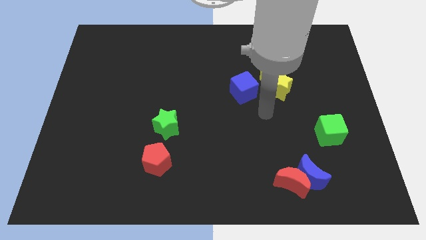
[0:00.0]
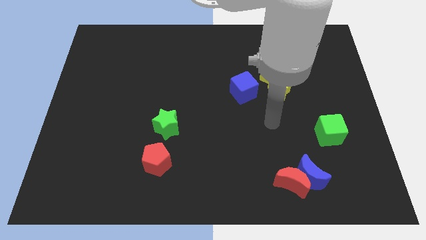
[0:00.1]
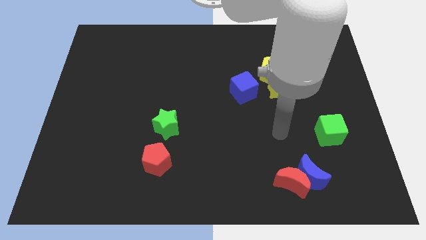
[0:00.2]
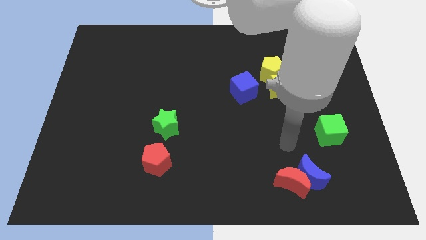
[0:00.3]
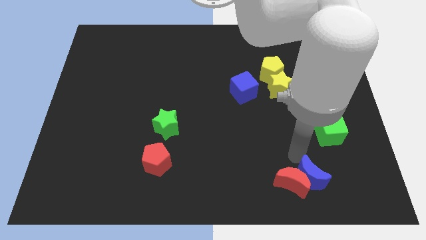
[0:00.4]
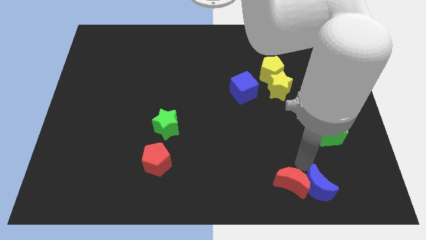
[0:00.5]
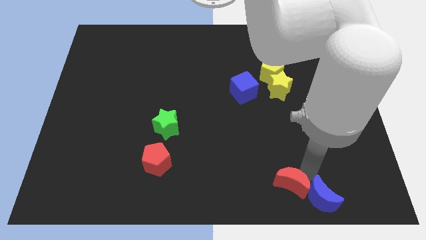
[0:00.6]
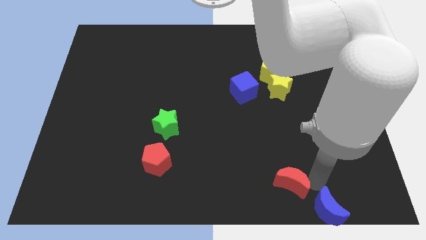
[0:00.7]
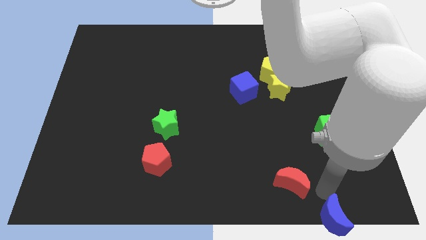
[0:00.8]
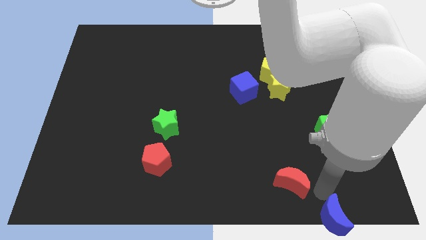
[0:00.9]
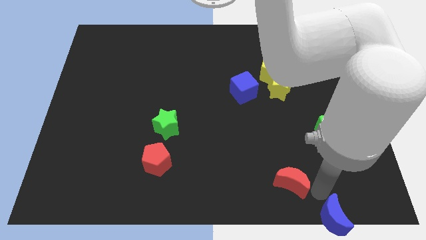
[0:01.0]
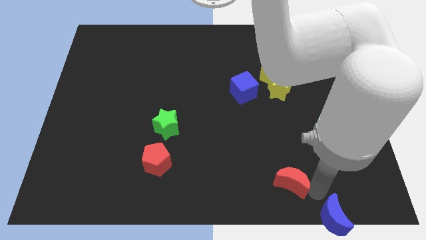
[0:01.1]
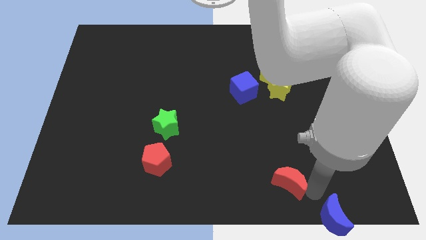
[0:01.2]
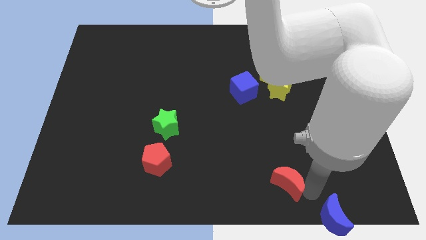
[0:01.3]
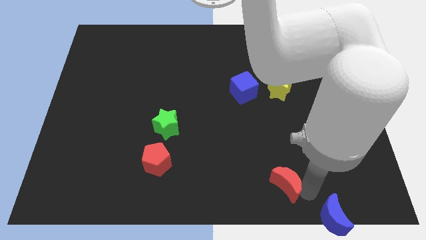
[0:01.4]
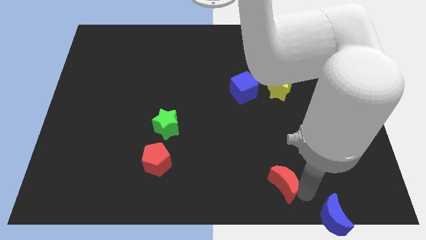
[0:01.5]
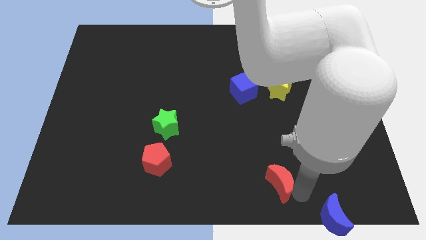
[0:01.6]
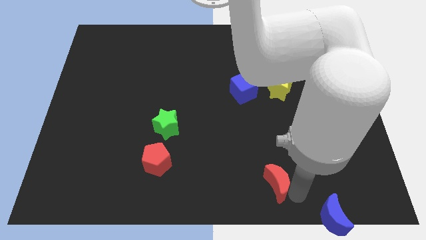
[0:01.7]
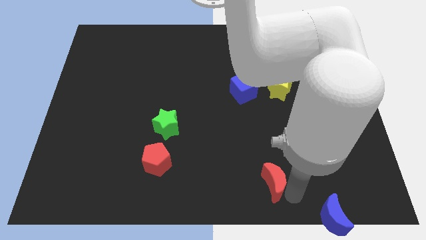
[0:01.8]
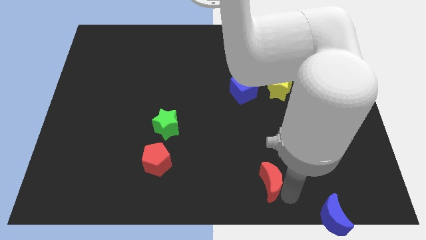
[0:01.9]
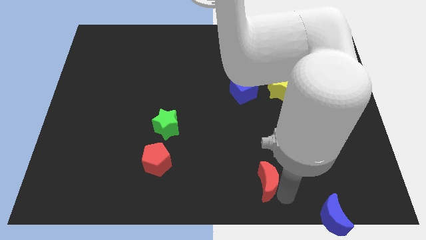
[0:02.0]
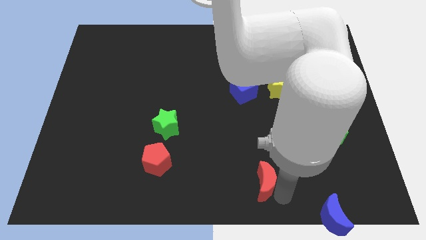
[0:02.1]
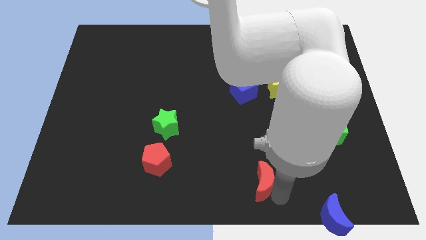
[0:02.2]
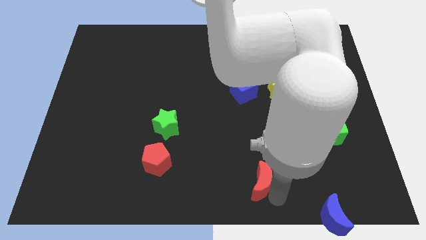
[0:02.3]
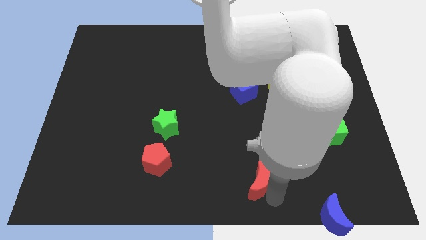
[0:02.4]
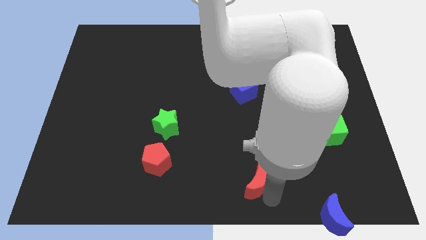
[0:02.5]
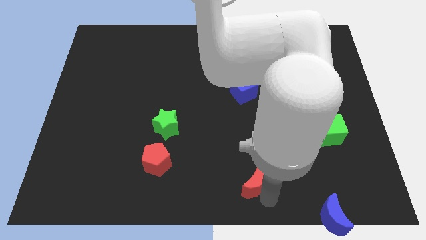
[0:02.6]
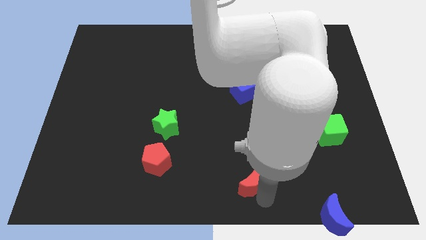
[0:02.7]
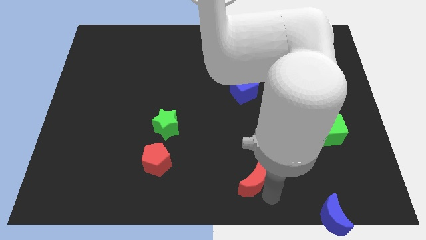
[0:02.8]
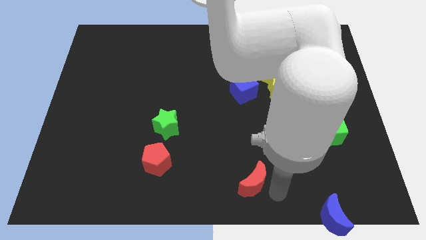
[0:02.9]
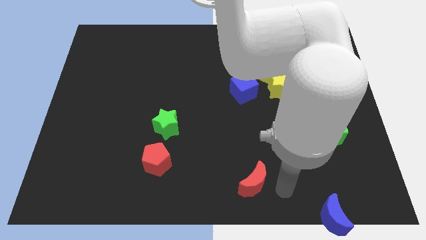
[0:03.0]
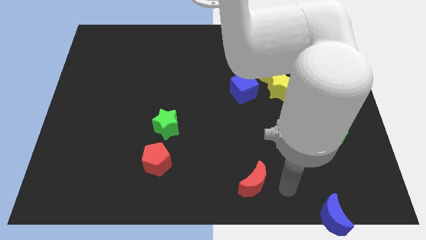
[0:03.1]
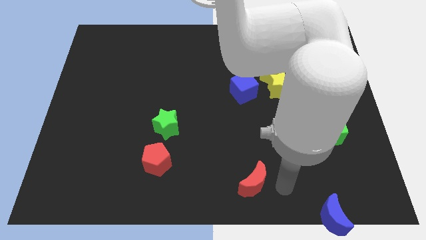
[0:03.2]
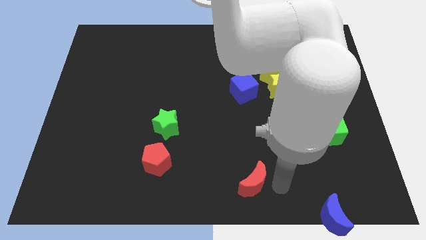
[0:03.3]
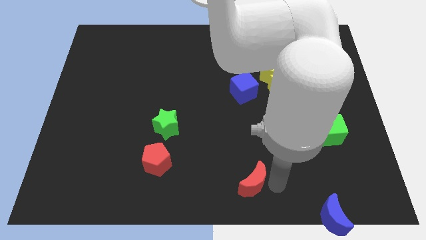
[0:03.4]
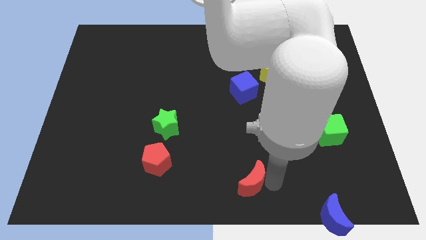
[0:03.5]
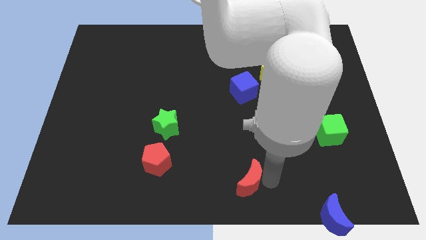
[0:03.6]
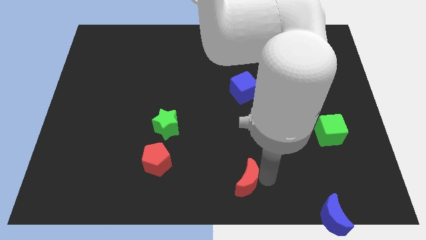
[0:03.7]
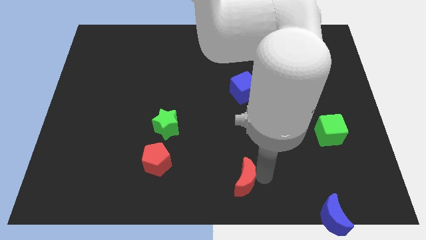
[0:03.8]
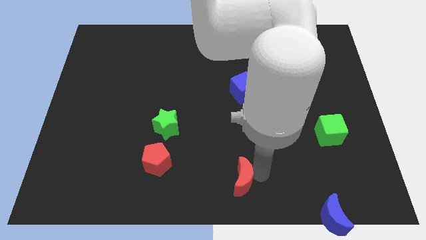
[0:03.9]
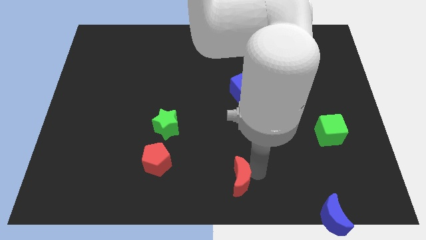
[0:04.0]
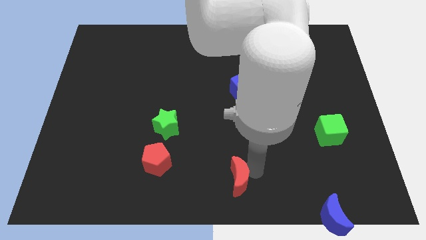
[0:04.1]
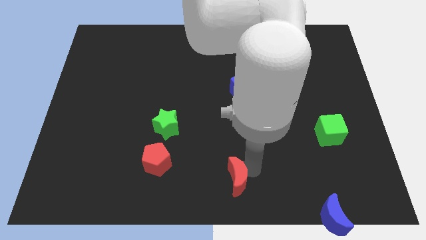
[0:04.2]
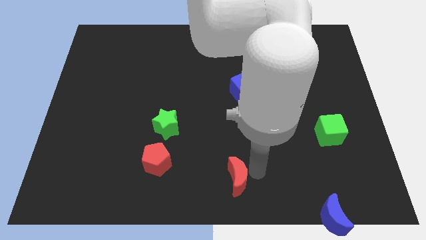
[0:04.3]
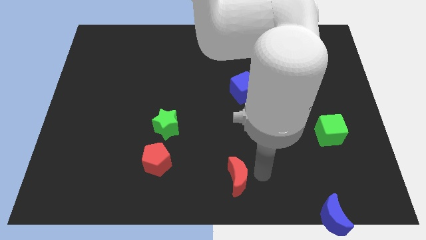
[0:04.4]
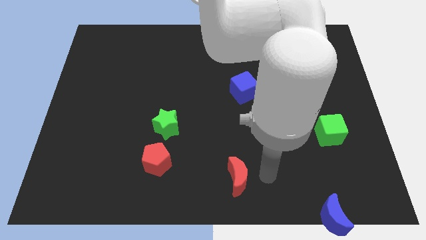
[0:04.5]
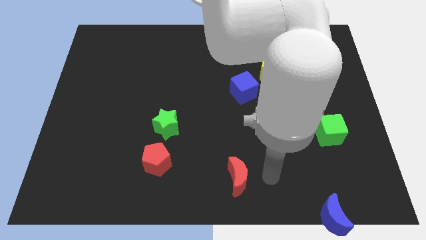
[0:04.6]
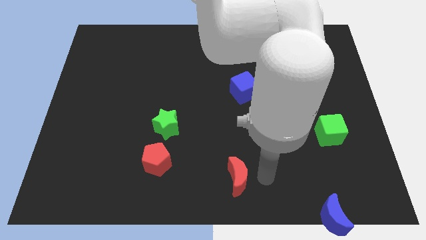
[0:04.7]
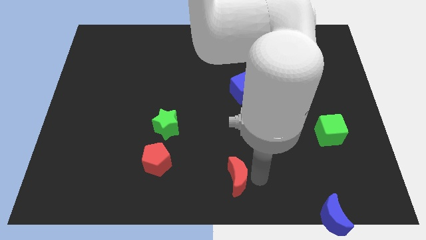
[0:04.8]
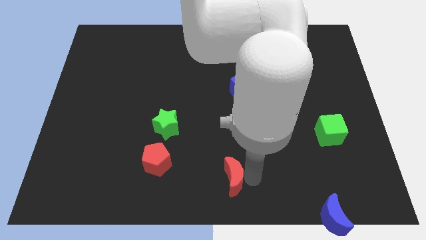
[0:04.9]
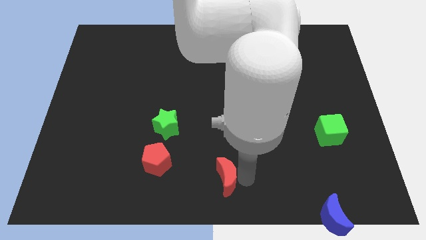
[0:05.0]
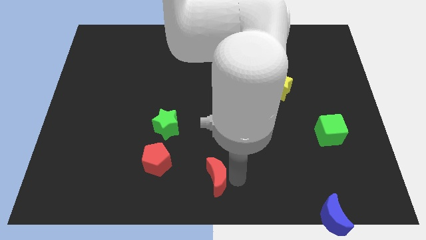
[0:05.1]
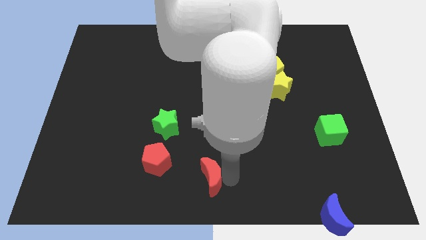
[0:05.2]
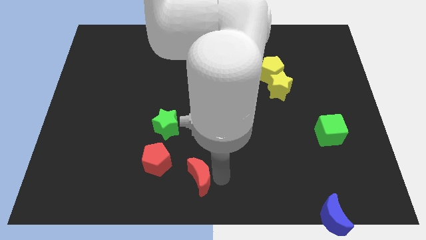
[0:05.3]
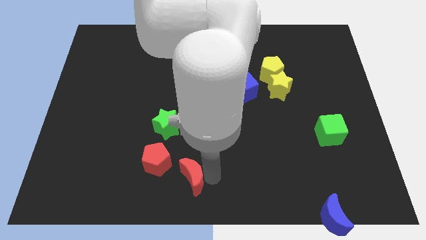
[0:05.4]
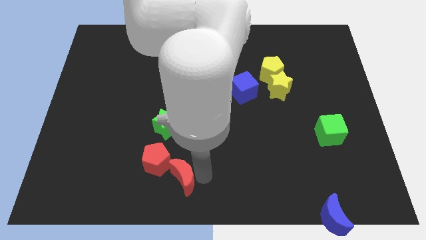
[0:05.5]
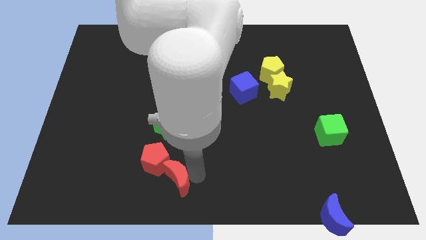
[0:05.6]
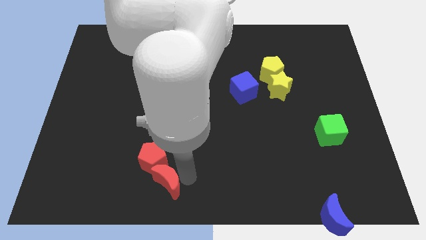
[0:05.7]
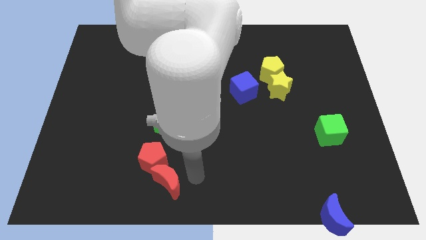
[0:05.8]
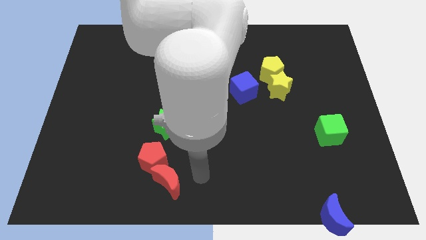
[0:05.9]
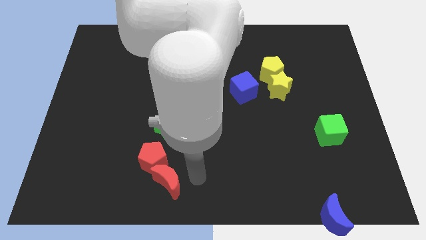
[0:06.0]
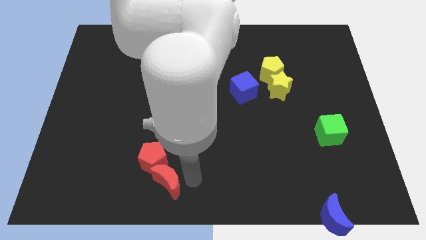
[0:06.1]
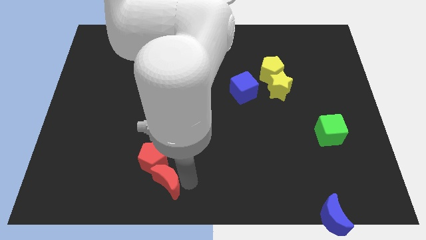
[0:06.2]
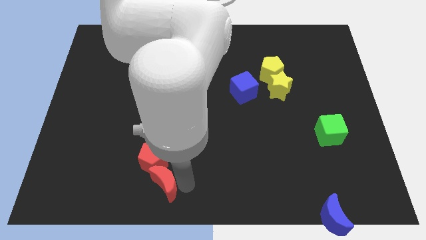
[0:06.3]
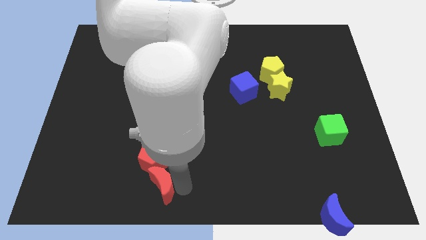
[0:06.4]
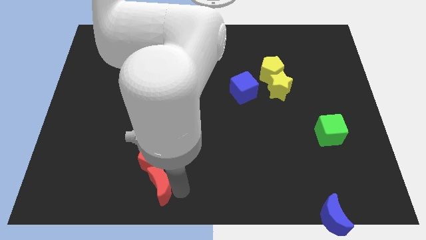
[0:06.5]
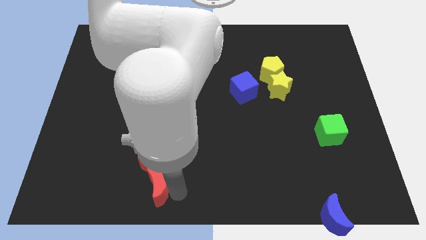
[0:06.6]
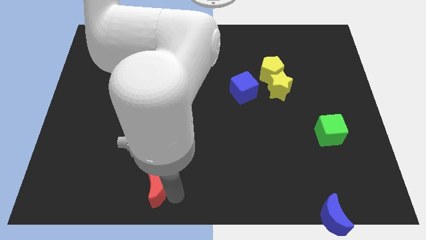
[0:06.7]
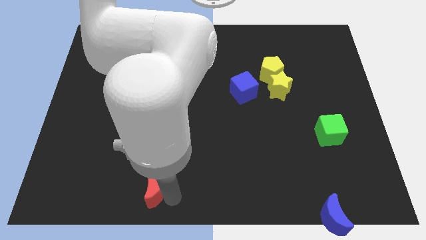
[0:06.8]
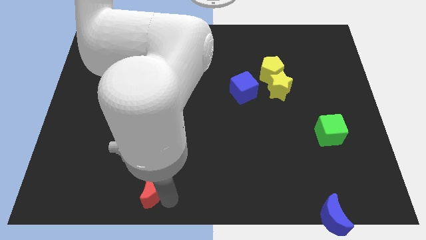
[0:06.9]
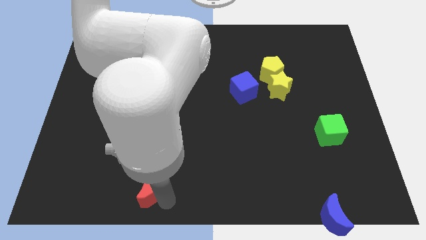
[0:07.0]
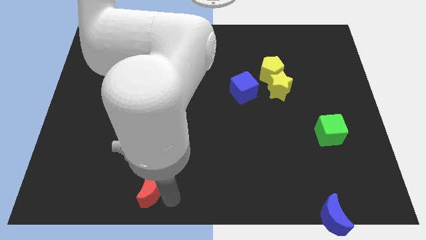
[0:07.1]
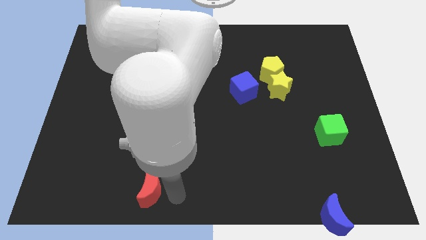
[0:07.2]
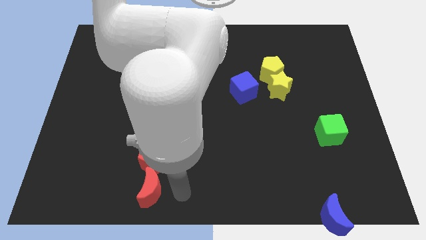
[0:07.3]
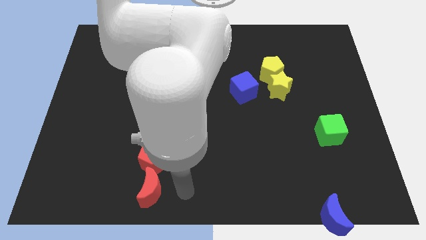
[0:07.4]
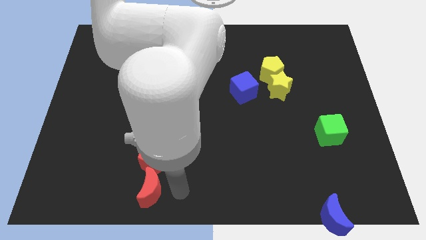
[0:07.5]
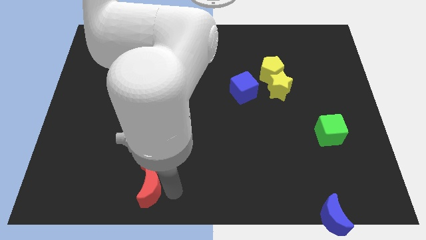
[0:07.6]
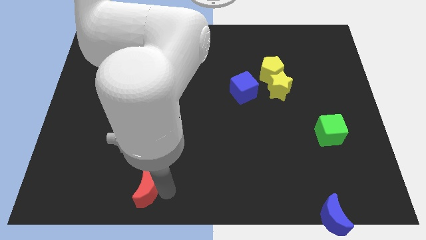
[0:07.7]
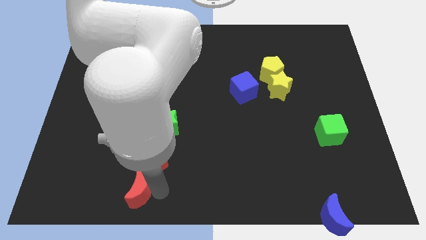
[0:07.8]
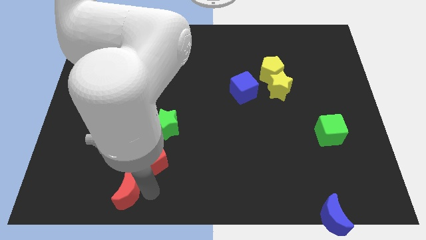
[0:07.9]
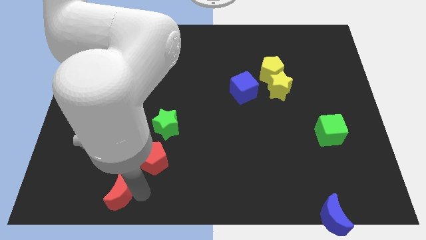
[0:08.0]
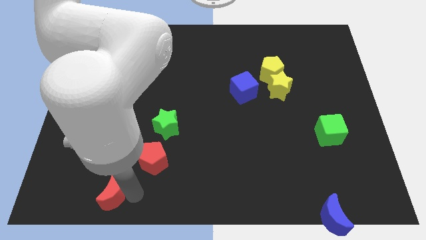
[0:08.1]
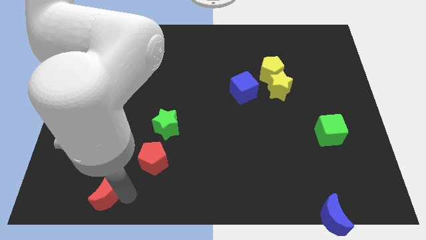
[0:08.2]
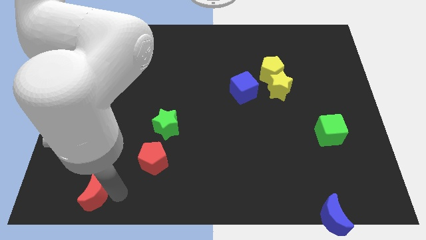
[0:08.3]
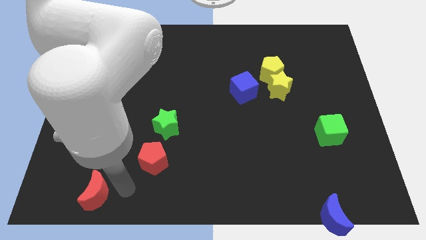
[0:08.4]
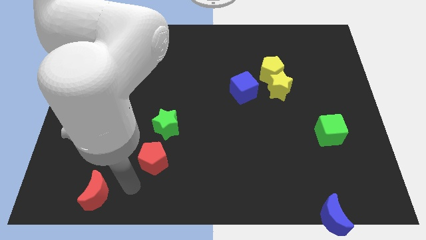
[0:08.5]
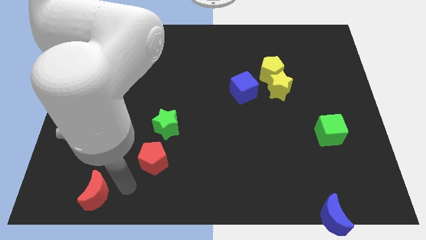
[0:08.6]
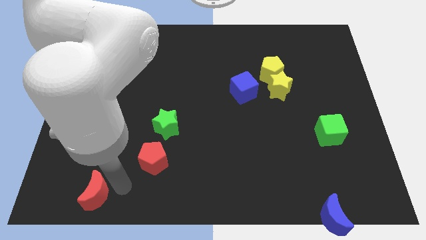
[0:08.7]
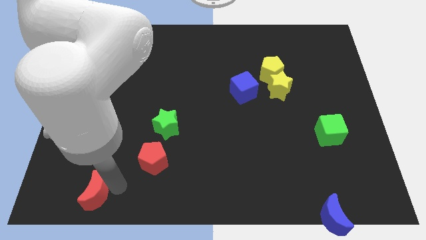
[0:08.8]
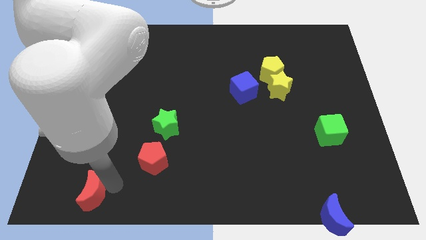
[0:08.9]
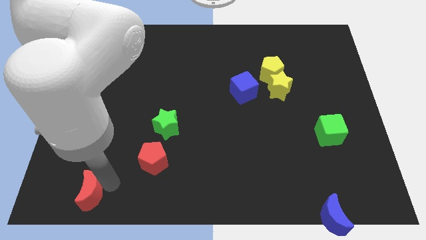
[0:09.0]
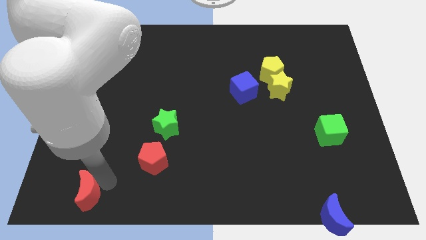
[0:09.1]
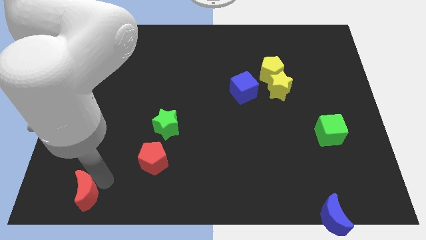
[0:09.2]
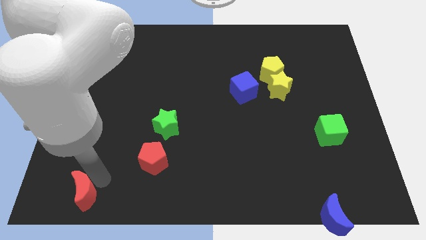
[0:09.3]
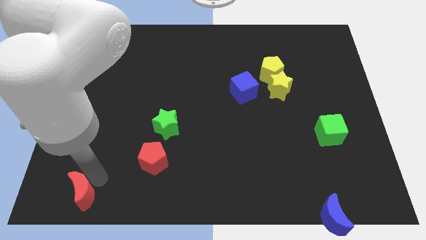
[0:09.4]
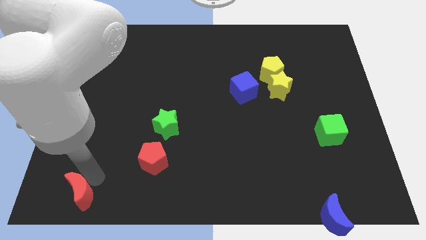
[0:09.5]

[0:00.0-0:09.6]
put the red moon to the bottom left corner
